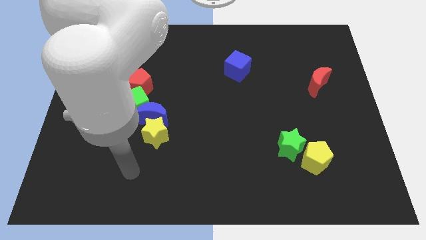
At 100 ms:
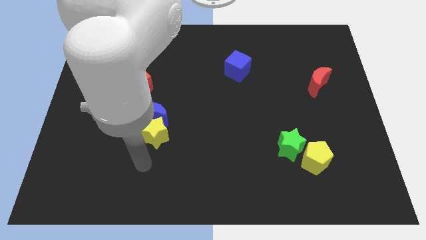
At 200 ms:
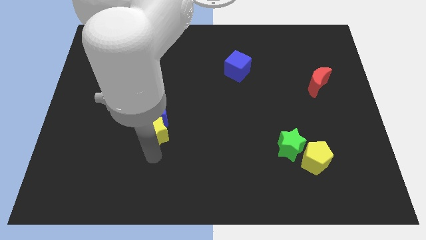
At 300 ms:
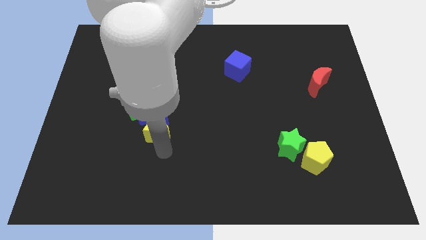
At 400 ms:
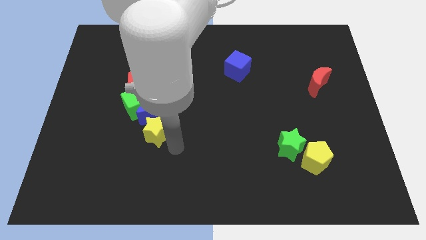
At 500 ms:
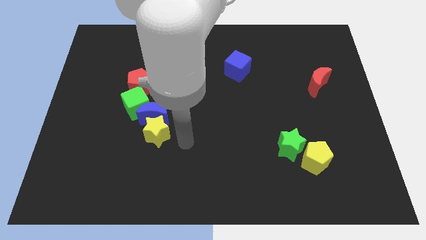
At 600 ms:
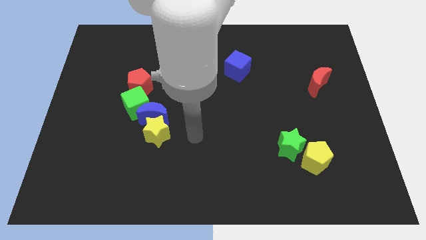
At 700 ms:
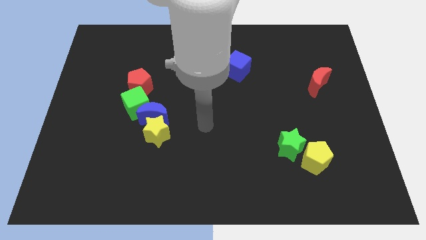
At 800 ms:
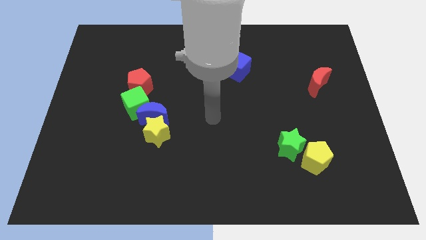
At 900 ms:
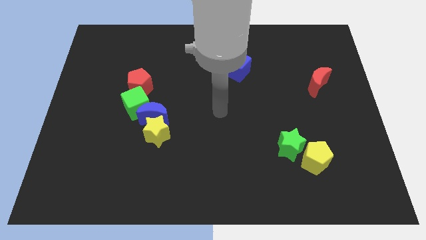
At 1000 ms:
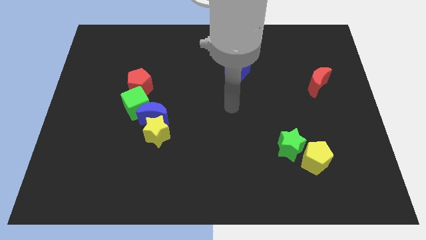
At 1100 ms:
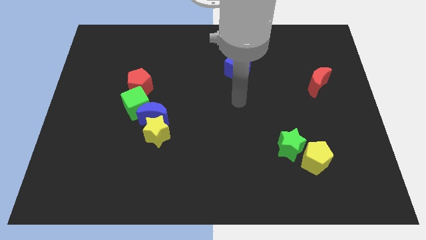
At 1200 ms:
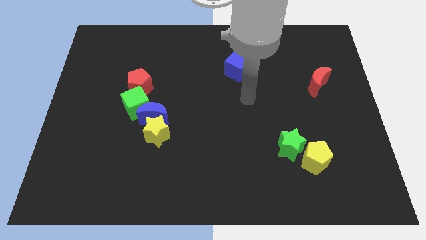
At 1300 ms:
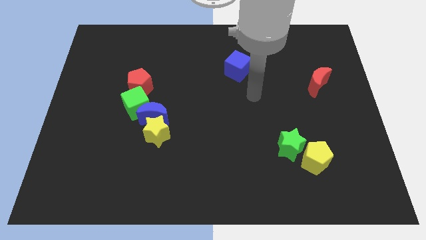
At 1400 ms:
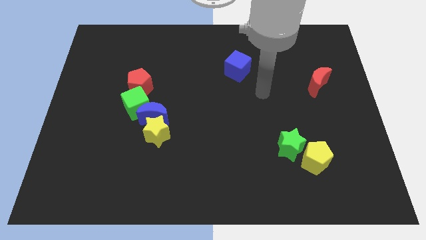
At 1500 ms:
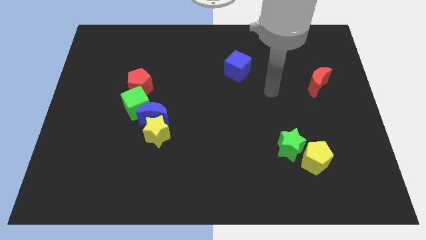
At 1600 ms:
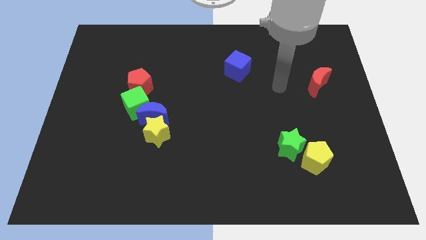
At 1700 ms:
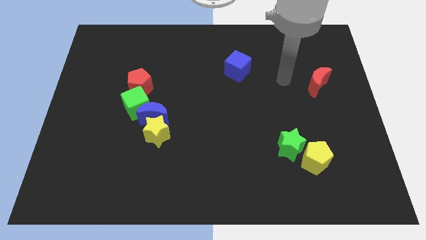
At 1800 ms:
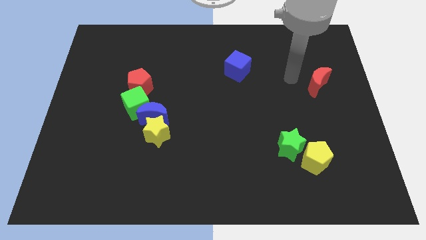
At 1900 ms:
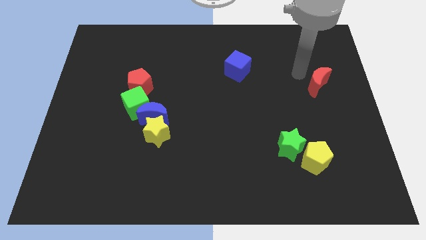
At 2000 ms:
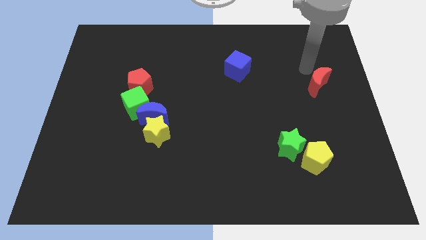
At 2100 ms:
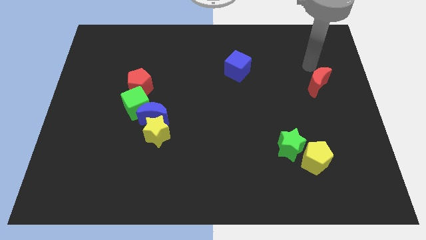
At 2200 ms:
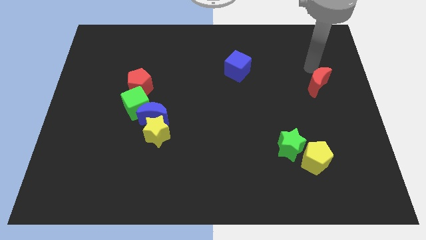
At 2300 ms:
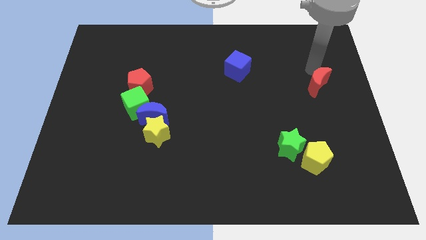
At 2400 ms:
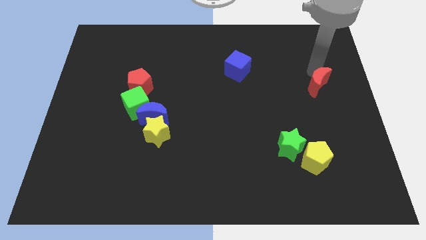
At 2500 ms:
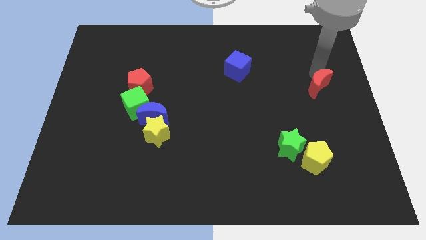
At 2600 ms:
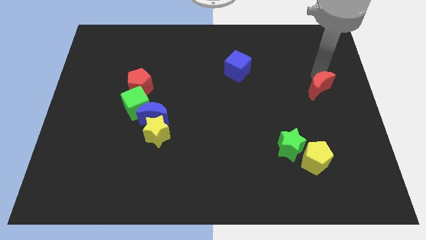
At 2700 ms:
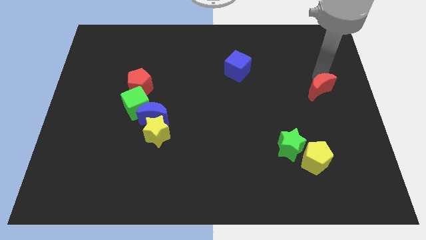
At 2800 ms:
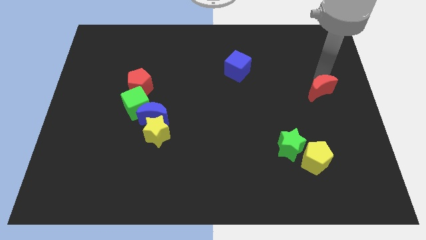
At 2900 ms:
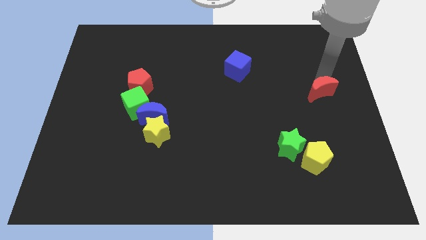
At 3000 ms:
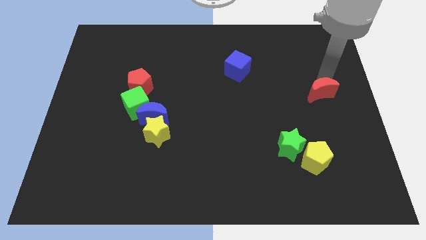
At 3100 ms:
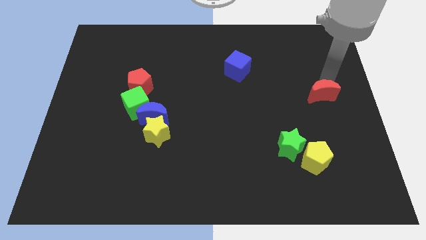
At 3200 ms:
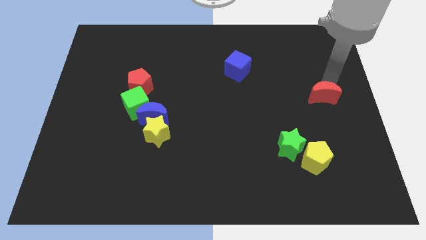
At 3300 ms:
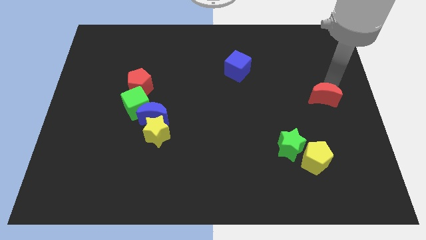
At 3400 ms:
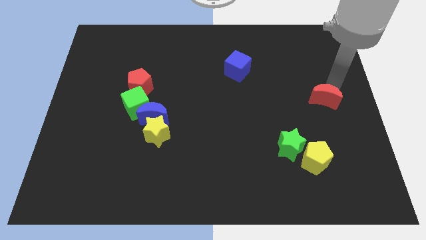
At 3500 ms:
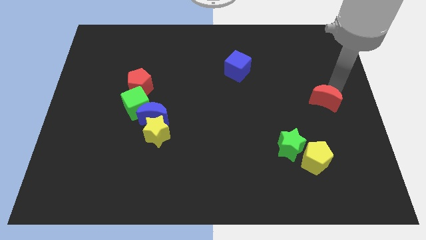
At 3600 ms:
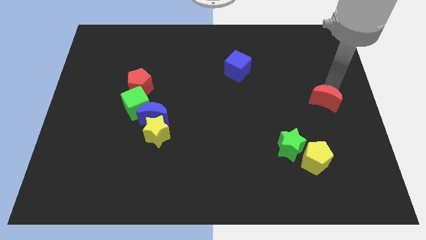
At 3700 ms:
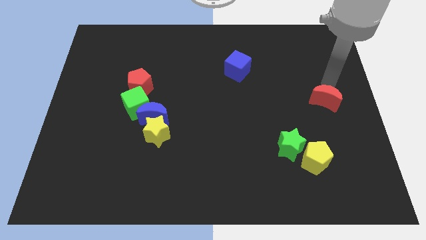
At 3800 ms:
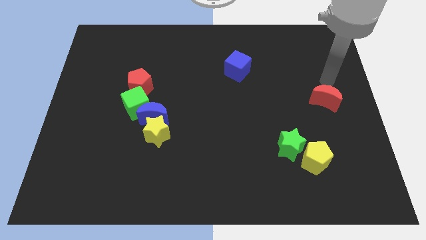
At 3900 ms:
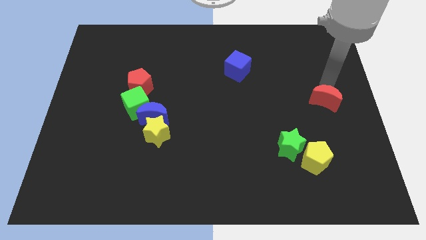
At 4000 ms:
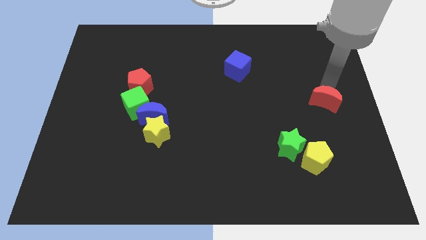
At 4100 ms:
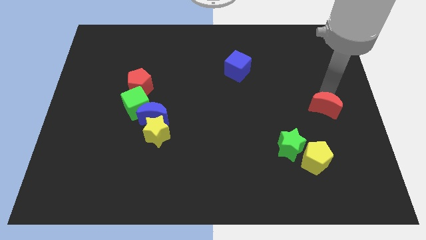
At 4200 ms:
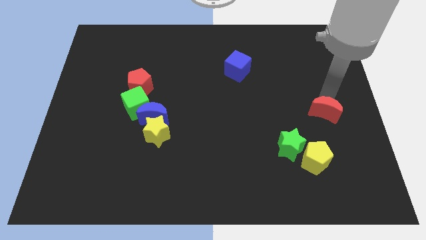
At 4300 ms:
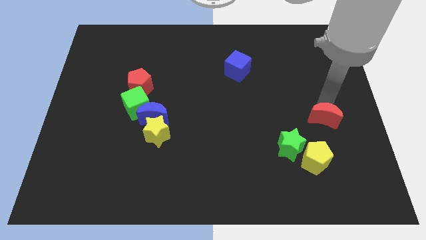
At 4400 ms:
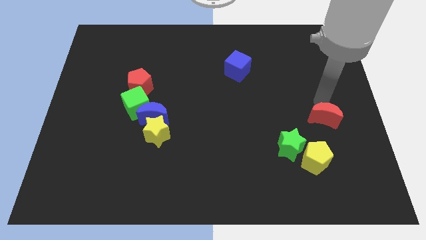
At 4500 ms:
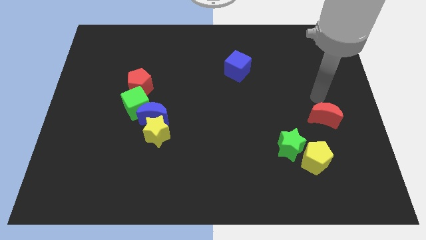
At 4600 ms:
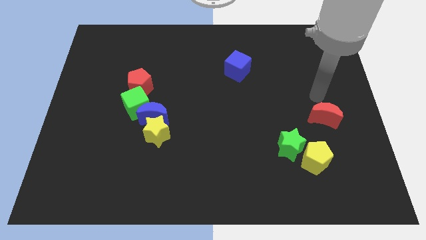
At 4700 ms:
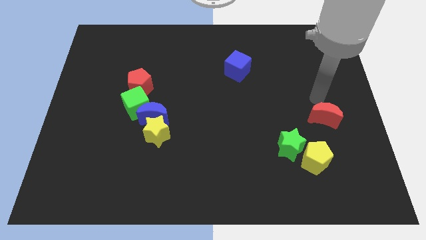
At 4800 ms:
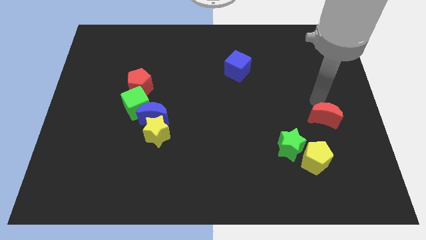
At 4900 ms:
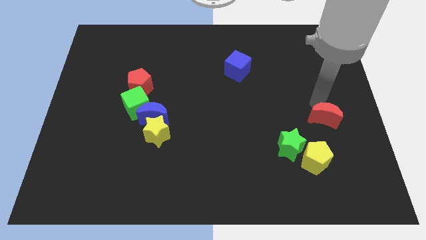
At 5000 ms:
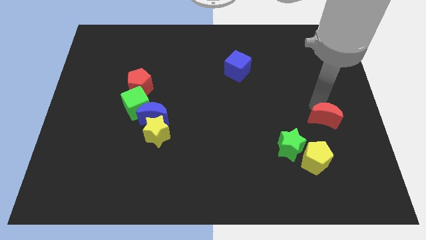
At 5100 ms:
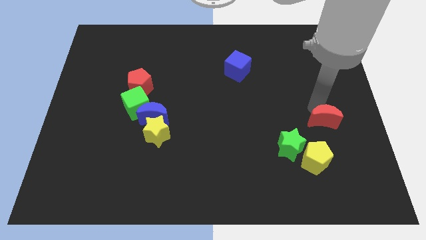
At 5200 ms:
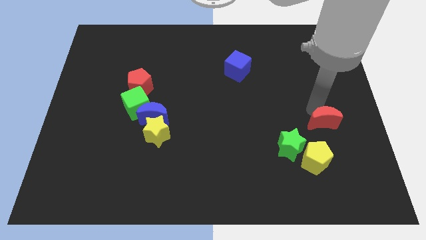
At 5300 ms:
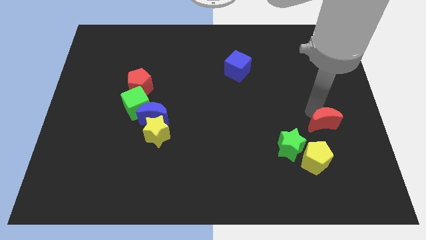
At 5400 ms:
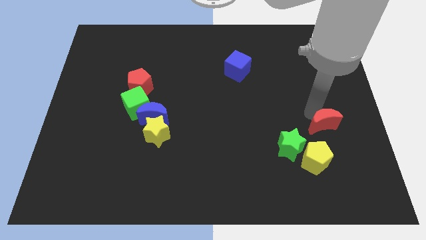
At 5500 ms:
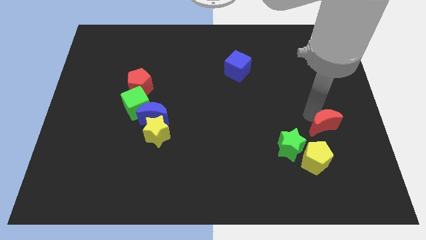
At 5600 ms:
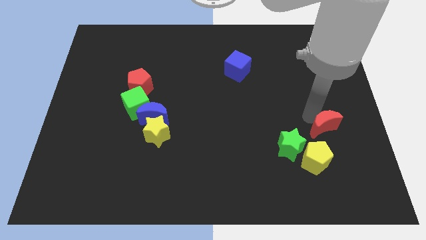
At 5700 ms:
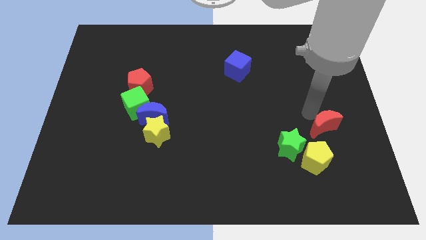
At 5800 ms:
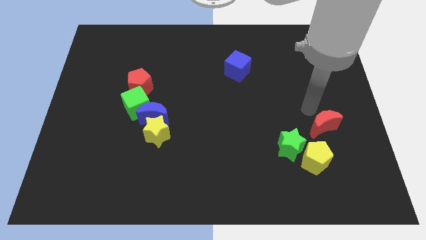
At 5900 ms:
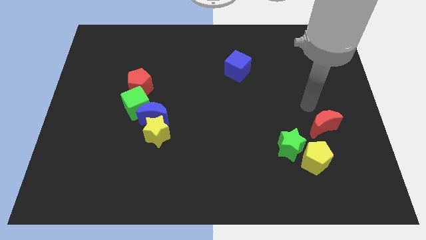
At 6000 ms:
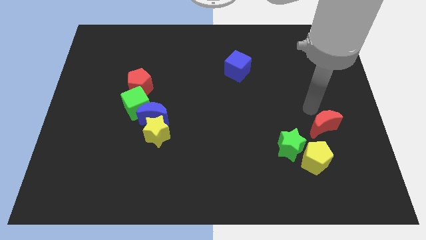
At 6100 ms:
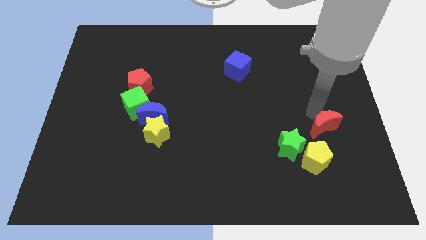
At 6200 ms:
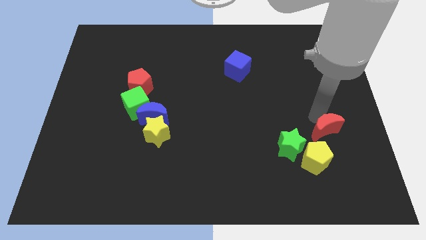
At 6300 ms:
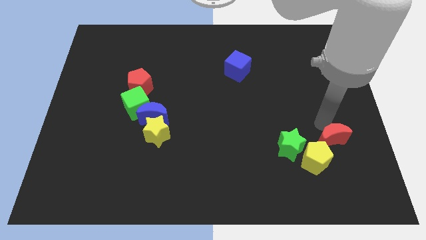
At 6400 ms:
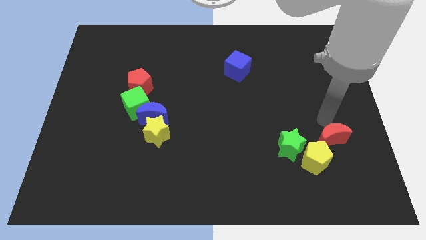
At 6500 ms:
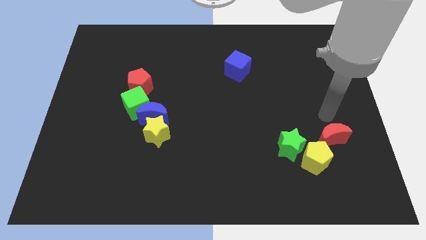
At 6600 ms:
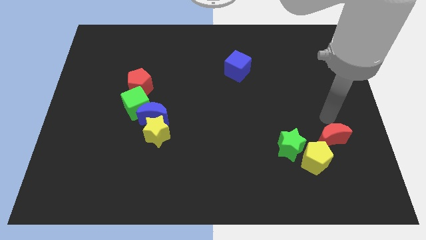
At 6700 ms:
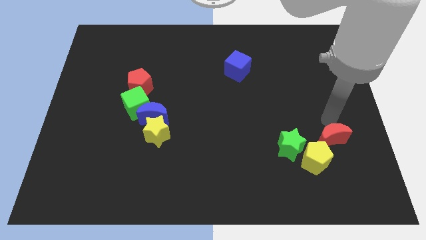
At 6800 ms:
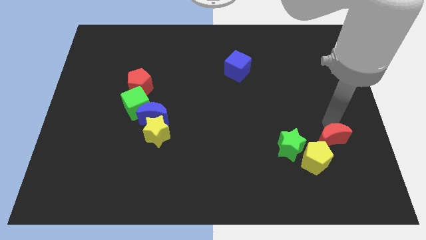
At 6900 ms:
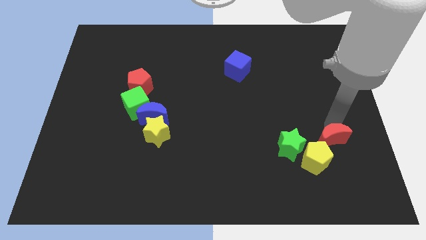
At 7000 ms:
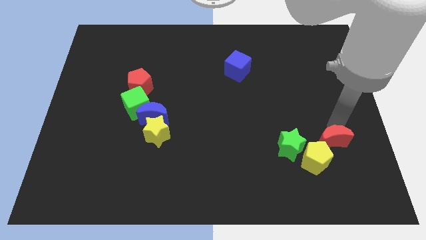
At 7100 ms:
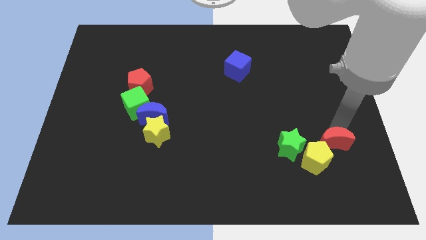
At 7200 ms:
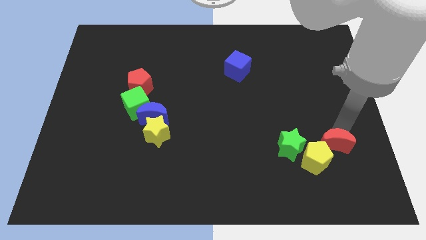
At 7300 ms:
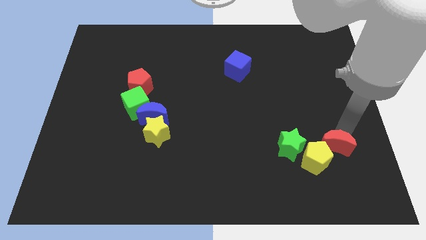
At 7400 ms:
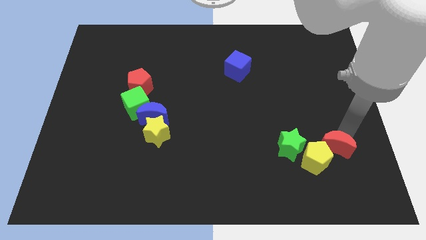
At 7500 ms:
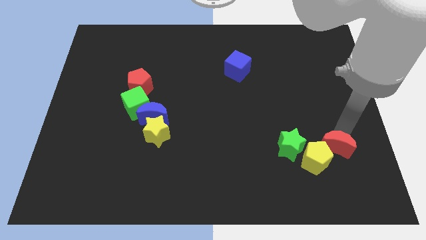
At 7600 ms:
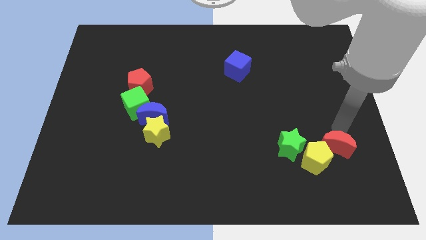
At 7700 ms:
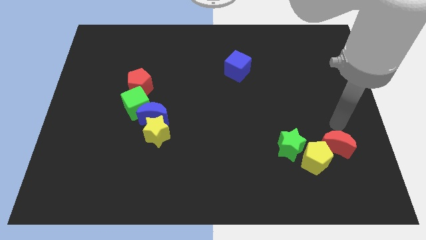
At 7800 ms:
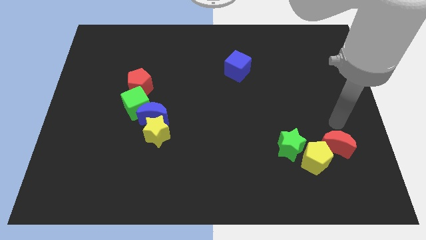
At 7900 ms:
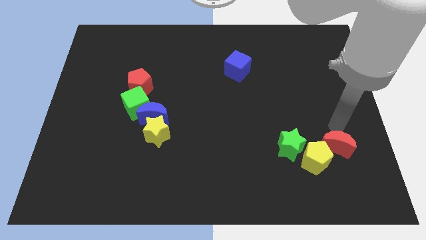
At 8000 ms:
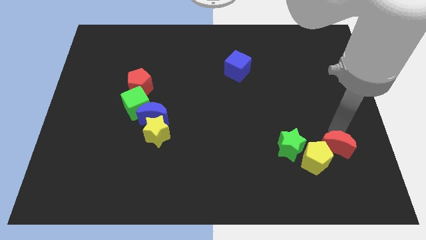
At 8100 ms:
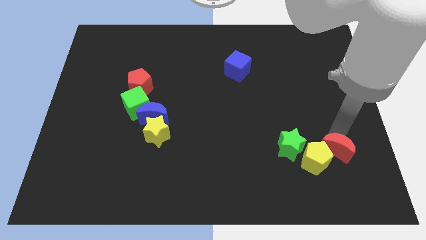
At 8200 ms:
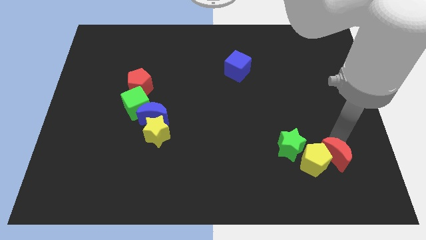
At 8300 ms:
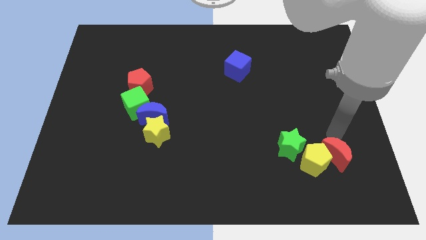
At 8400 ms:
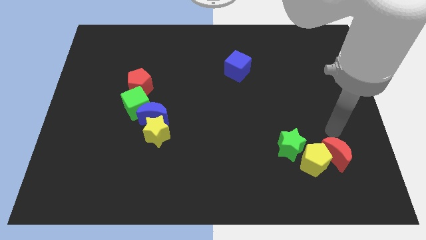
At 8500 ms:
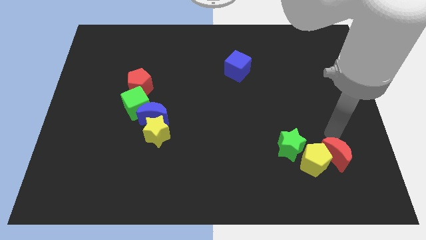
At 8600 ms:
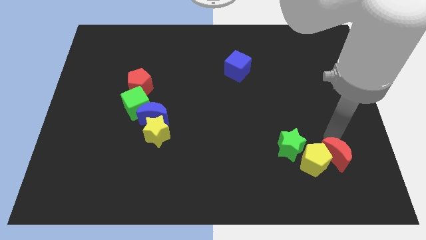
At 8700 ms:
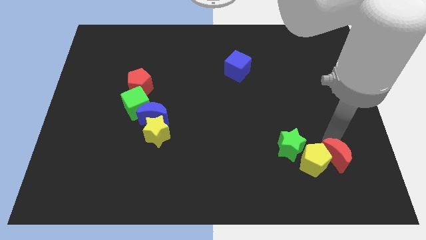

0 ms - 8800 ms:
slide the red moon to the bottom right side of the green star
